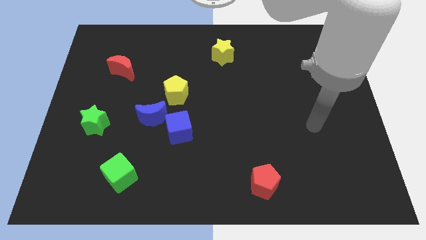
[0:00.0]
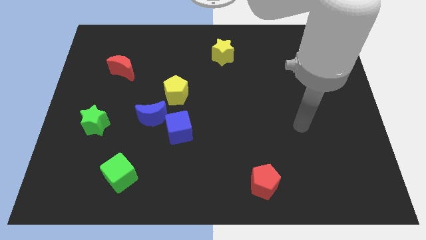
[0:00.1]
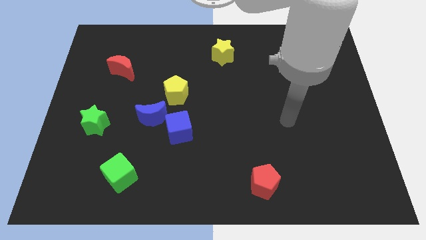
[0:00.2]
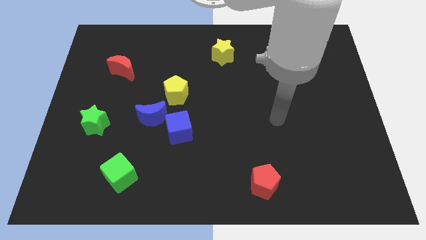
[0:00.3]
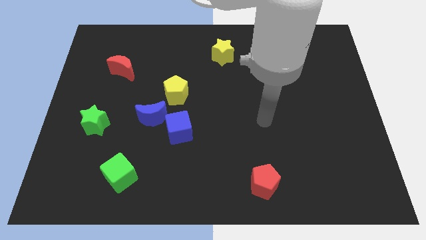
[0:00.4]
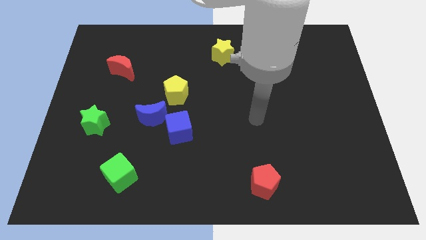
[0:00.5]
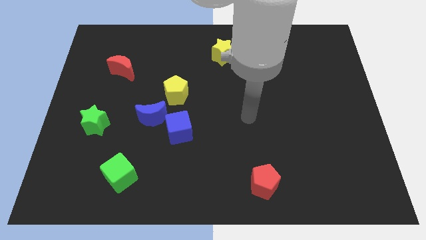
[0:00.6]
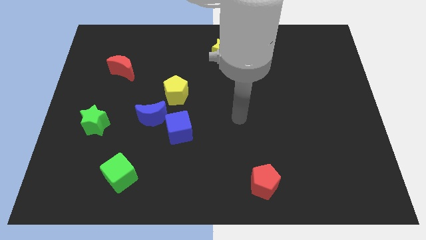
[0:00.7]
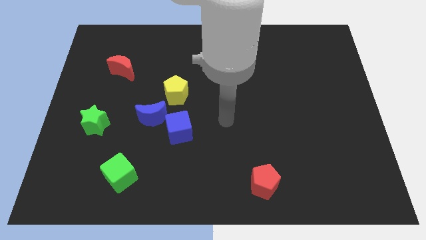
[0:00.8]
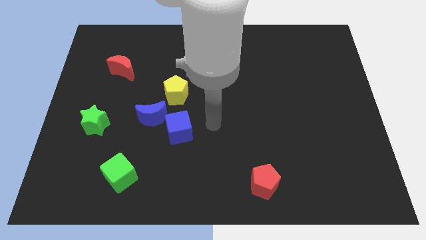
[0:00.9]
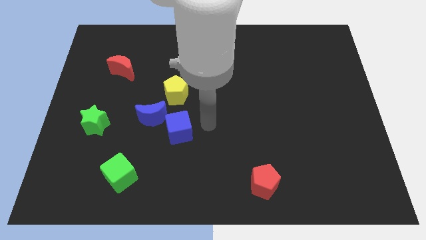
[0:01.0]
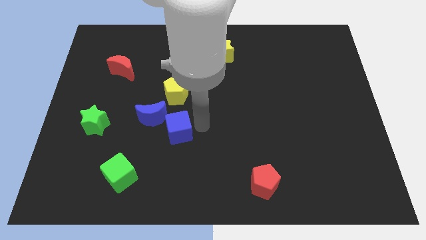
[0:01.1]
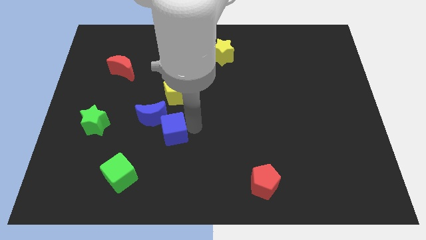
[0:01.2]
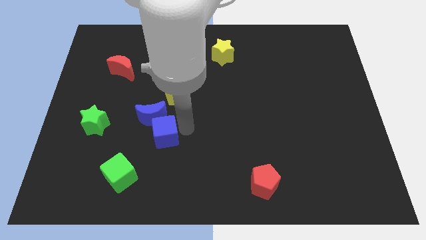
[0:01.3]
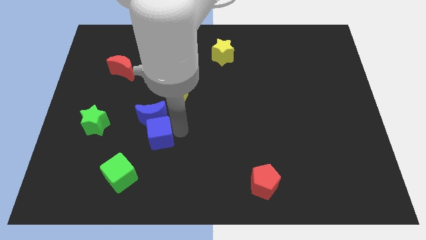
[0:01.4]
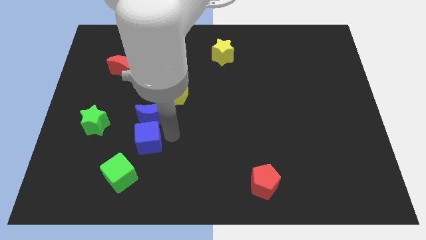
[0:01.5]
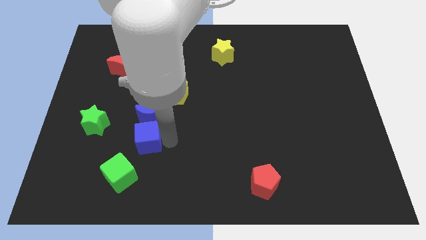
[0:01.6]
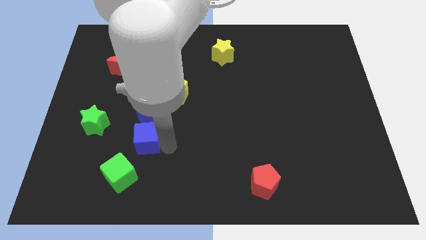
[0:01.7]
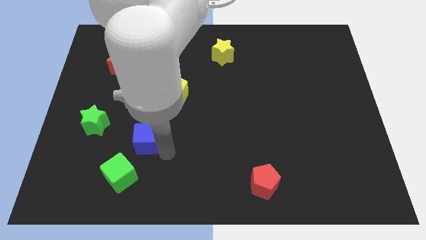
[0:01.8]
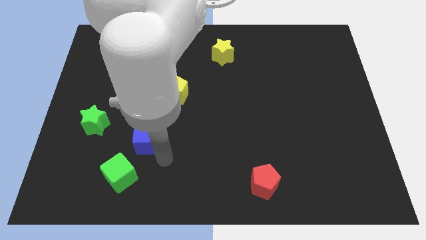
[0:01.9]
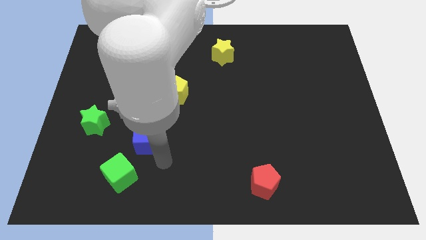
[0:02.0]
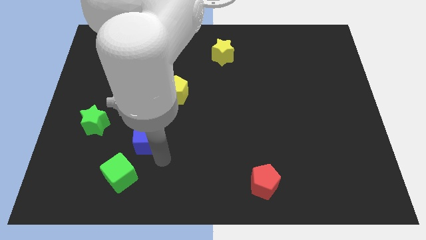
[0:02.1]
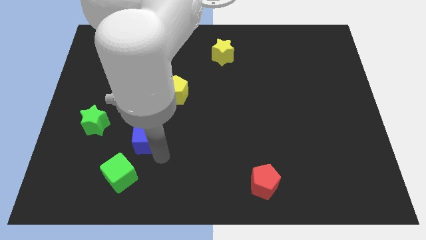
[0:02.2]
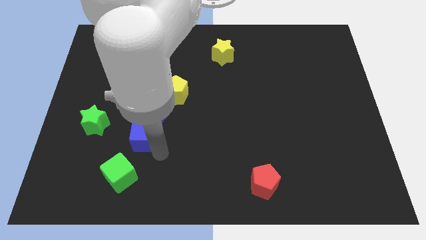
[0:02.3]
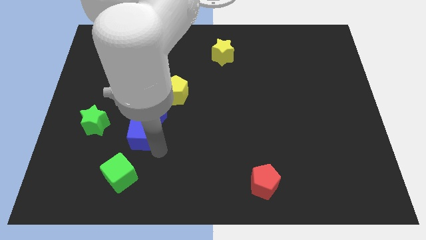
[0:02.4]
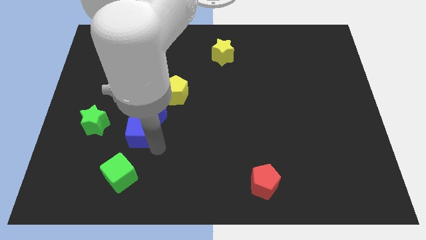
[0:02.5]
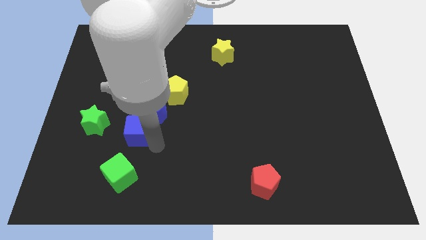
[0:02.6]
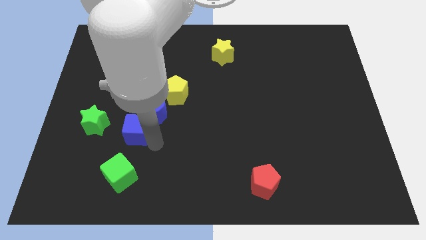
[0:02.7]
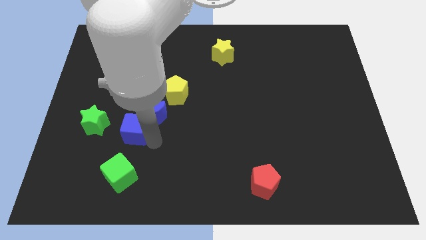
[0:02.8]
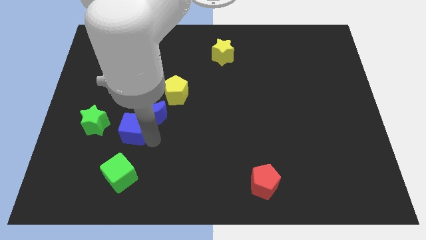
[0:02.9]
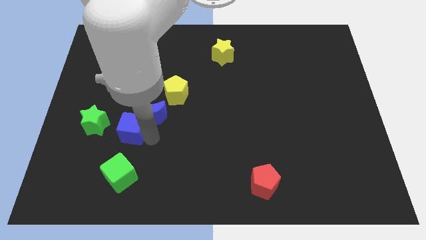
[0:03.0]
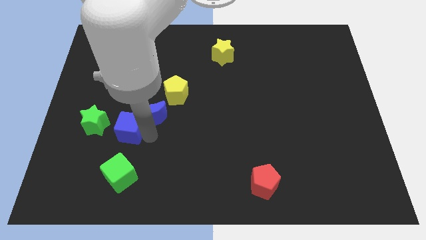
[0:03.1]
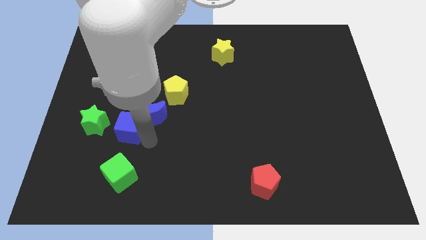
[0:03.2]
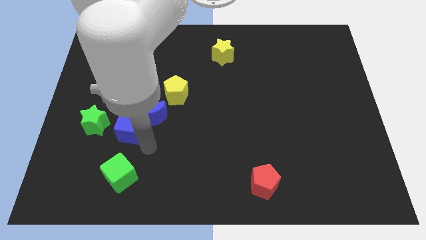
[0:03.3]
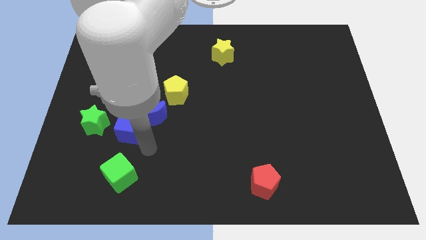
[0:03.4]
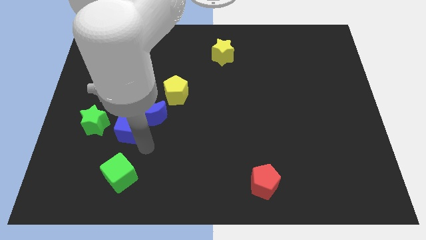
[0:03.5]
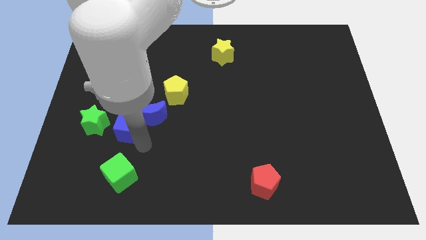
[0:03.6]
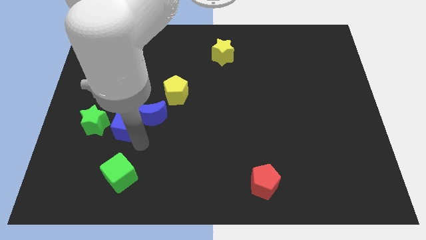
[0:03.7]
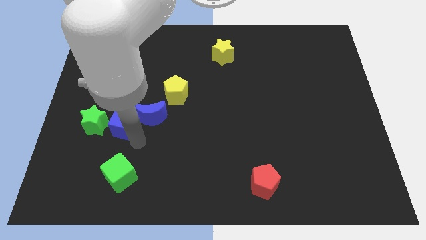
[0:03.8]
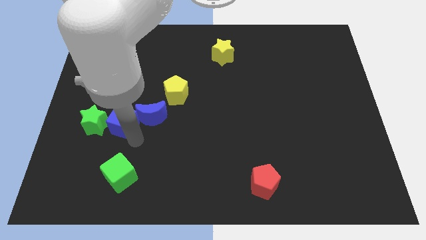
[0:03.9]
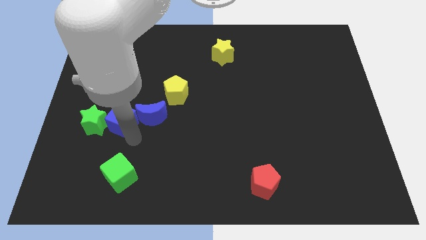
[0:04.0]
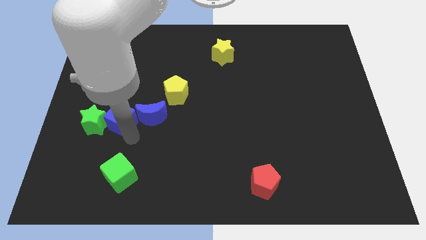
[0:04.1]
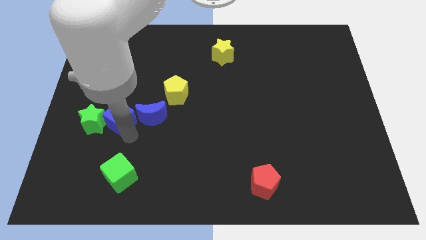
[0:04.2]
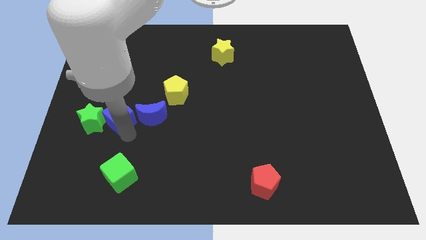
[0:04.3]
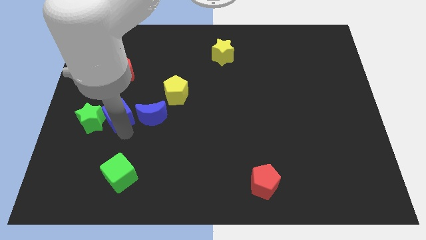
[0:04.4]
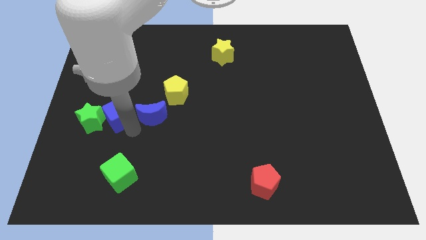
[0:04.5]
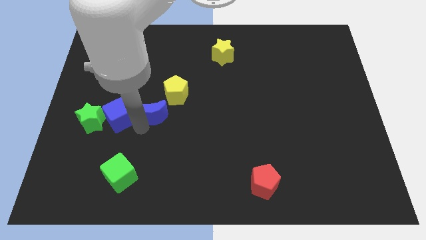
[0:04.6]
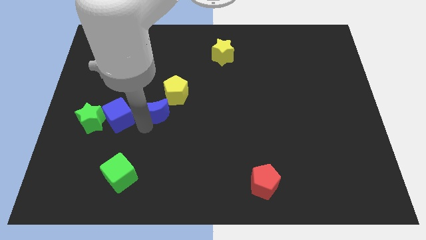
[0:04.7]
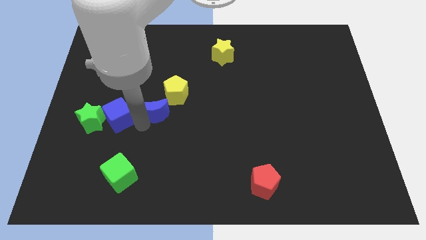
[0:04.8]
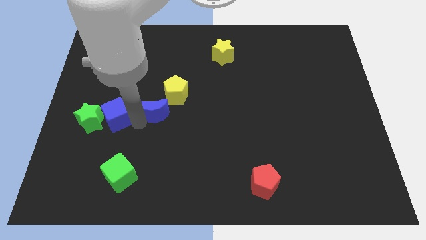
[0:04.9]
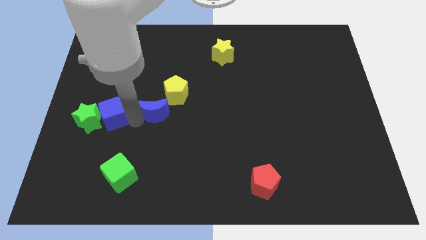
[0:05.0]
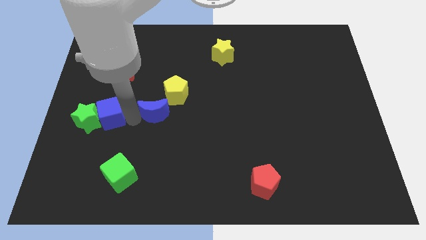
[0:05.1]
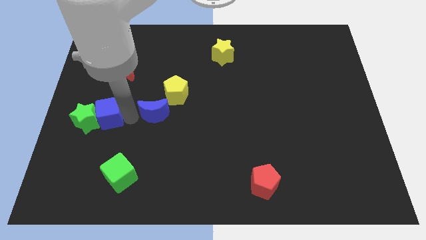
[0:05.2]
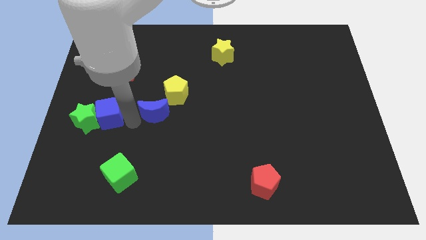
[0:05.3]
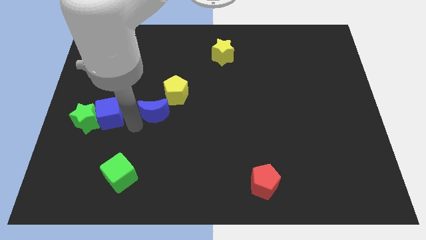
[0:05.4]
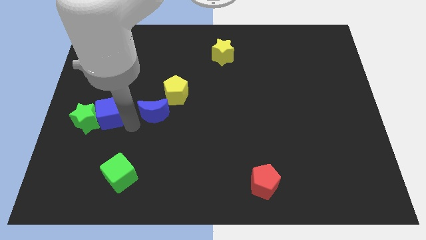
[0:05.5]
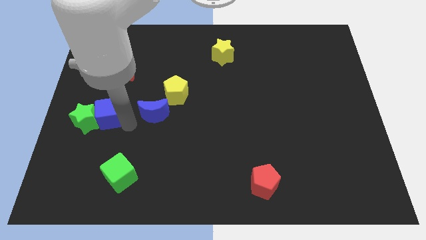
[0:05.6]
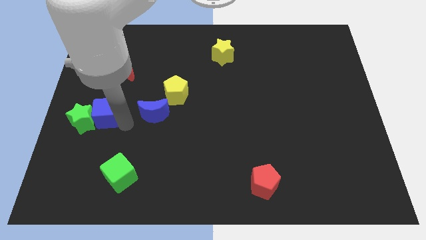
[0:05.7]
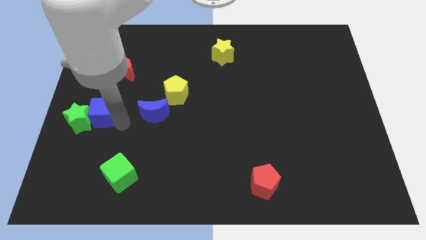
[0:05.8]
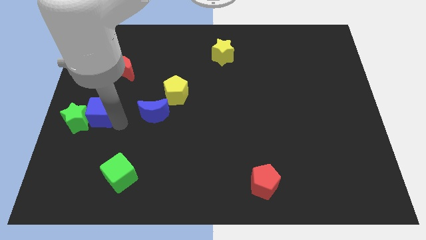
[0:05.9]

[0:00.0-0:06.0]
put the blue cube to the center left

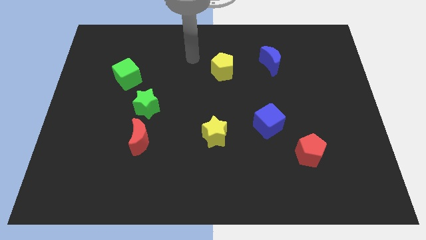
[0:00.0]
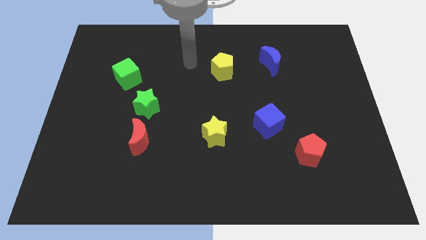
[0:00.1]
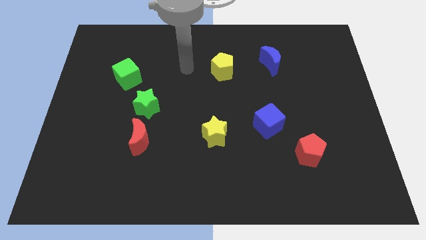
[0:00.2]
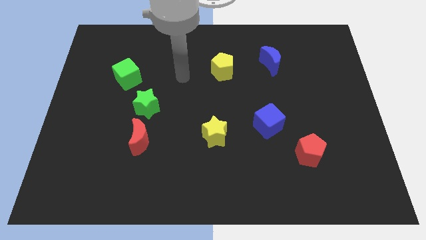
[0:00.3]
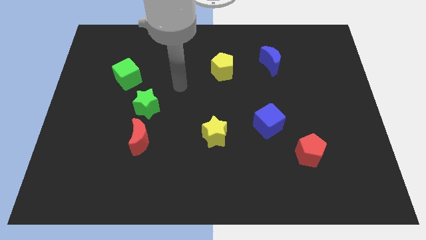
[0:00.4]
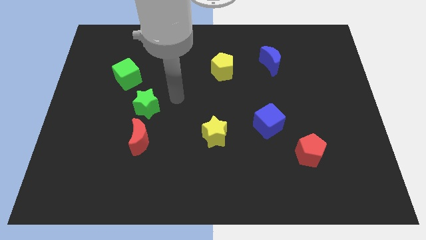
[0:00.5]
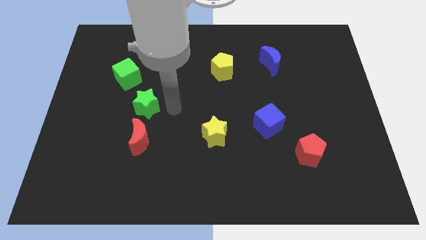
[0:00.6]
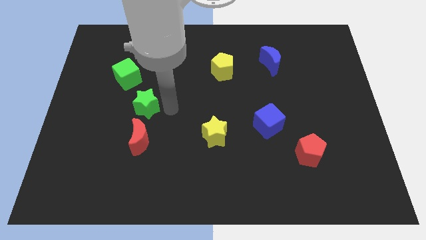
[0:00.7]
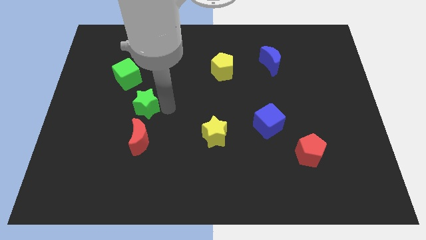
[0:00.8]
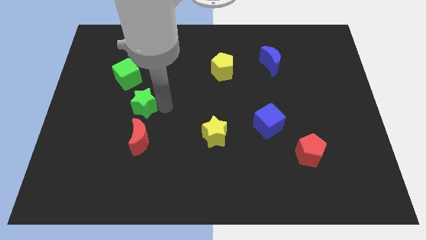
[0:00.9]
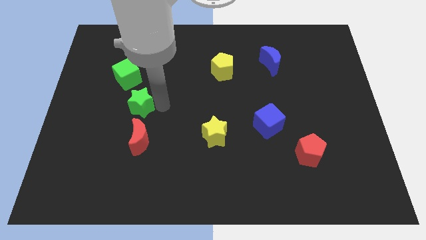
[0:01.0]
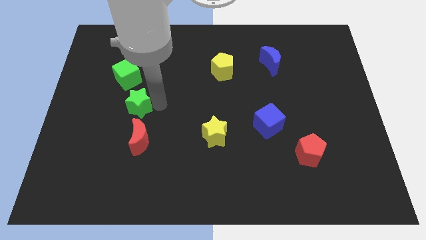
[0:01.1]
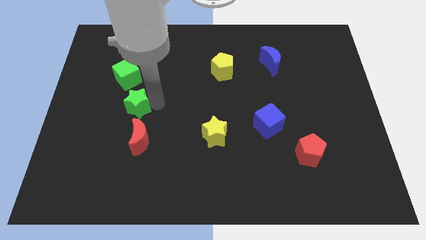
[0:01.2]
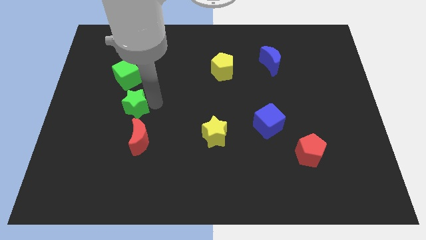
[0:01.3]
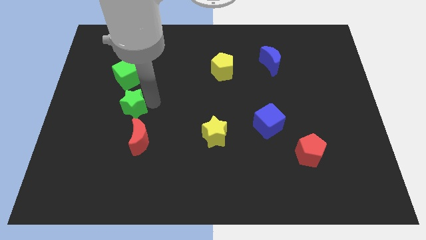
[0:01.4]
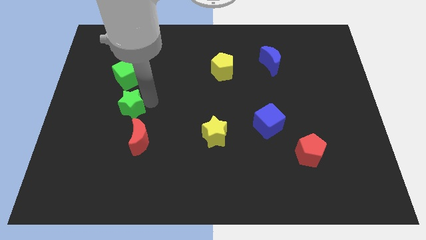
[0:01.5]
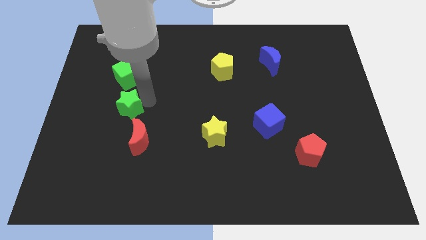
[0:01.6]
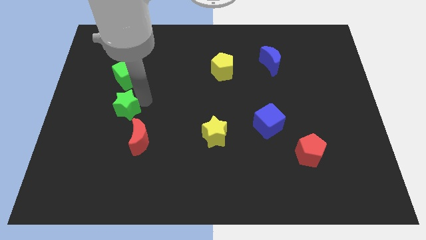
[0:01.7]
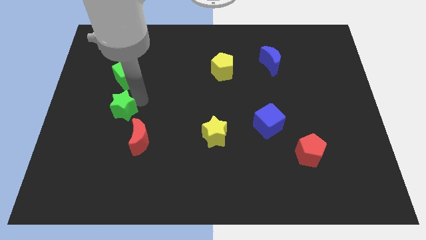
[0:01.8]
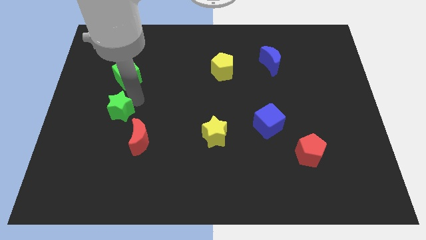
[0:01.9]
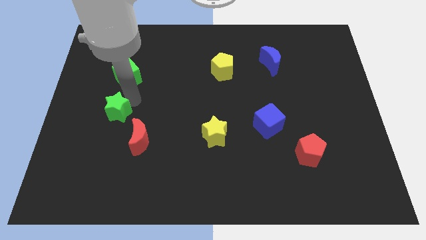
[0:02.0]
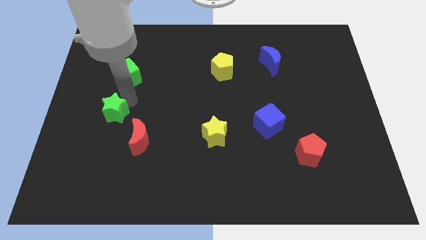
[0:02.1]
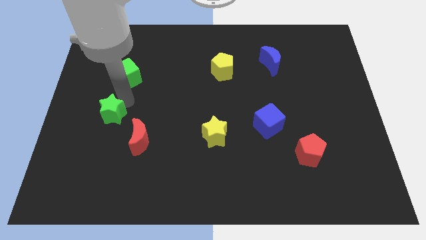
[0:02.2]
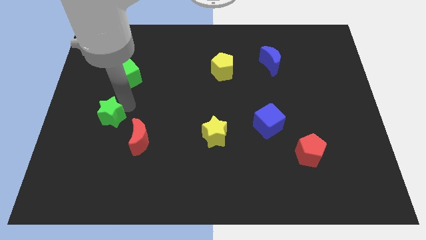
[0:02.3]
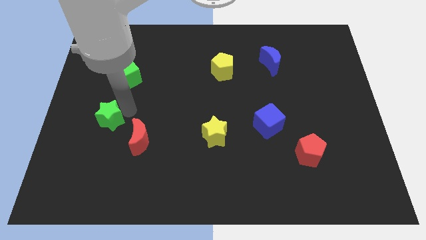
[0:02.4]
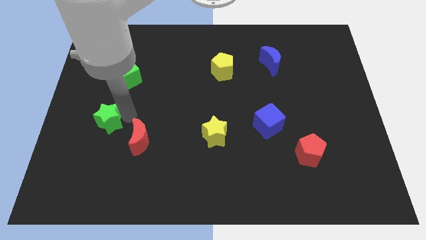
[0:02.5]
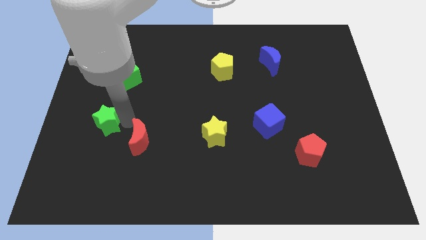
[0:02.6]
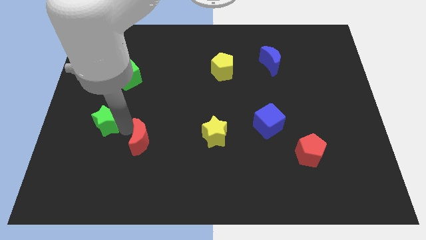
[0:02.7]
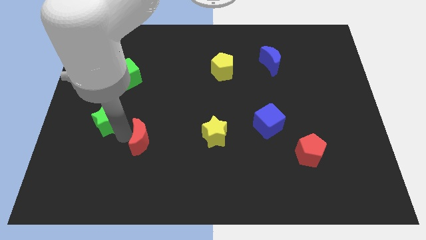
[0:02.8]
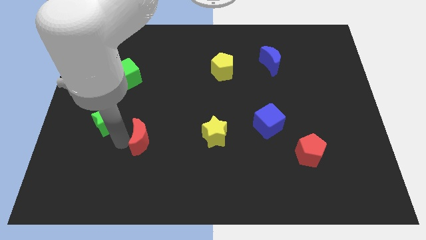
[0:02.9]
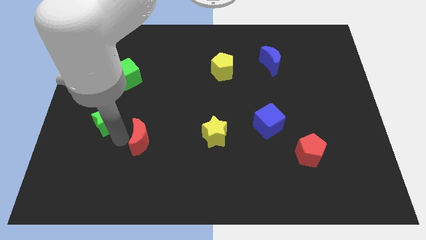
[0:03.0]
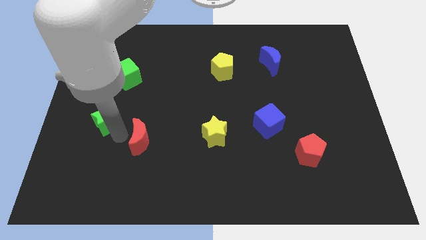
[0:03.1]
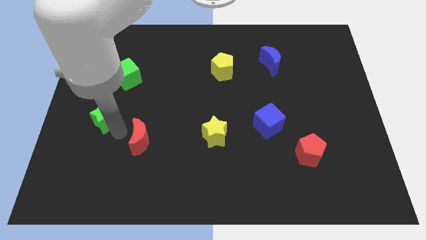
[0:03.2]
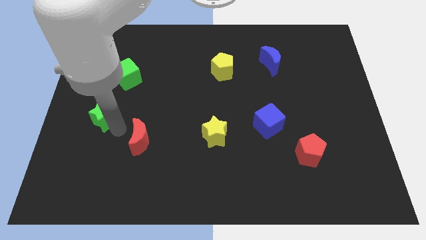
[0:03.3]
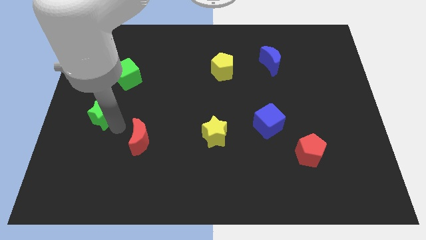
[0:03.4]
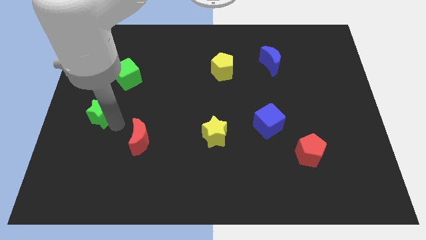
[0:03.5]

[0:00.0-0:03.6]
push the green star to the left side of the board
